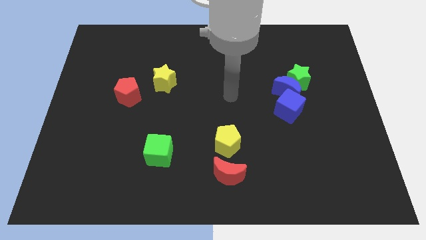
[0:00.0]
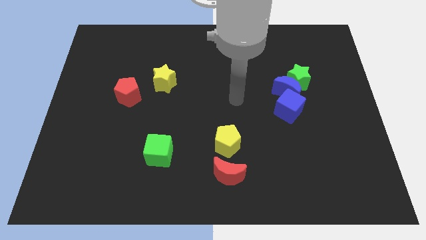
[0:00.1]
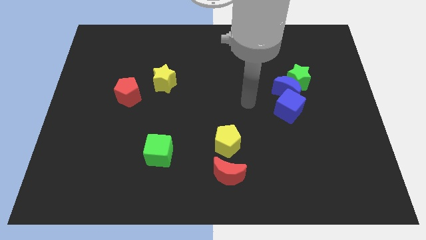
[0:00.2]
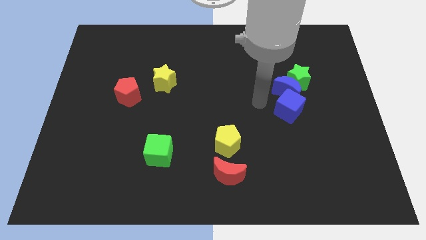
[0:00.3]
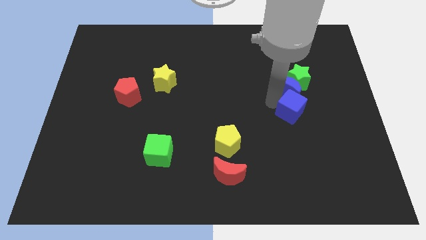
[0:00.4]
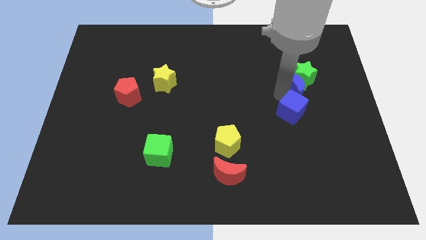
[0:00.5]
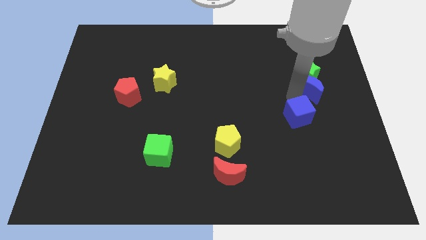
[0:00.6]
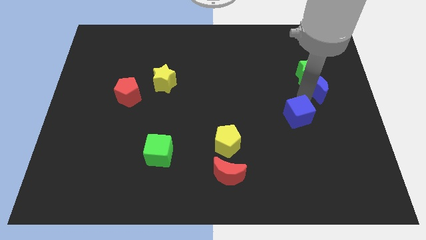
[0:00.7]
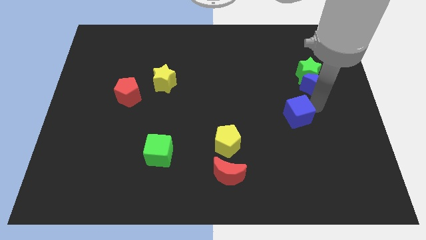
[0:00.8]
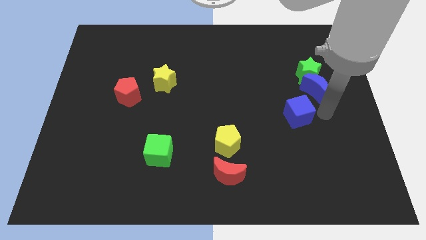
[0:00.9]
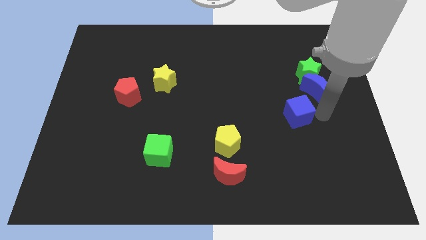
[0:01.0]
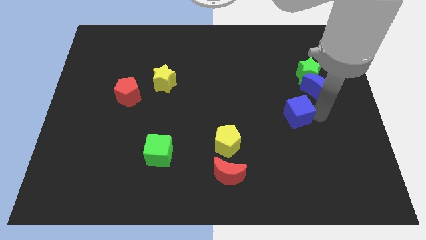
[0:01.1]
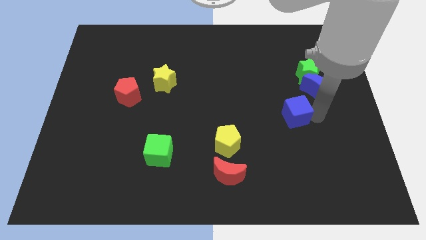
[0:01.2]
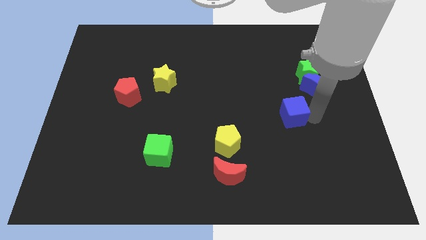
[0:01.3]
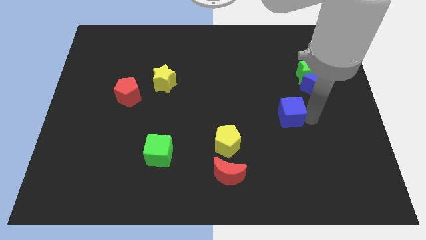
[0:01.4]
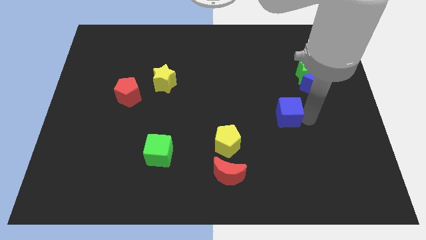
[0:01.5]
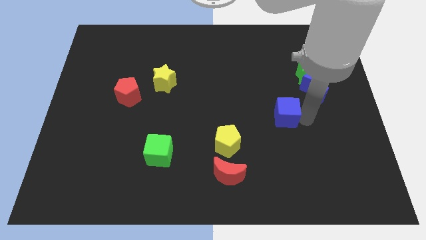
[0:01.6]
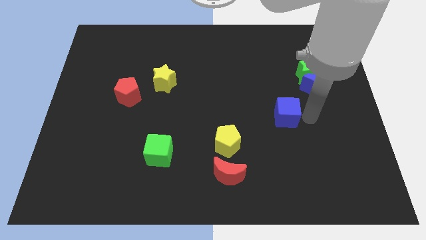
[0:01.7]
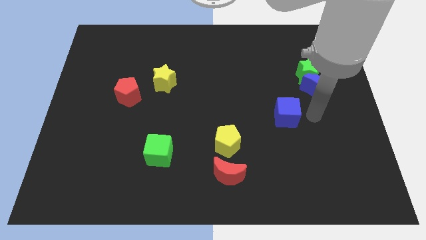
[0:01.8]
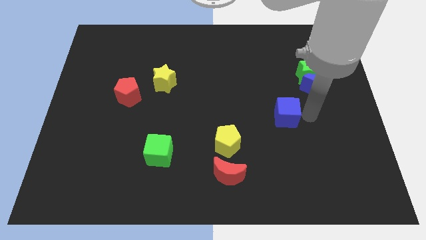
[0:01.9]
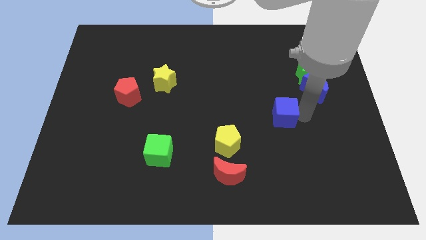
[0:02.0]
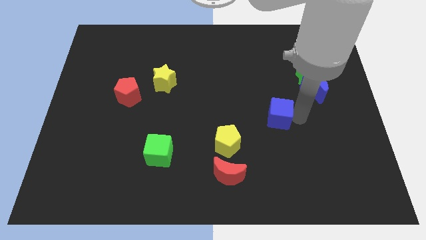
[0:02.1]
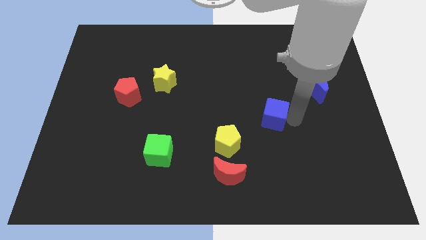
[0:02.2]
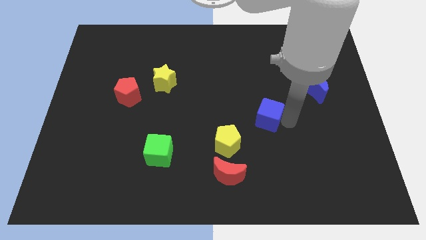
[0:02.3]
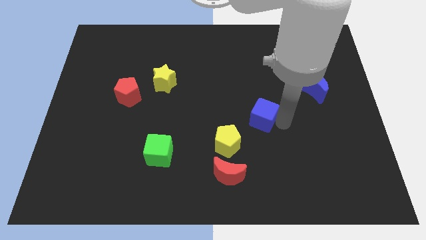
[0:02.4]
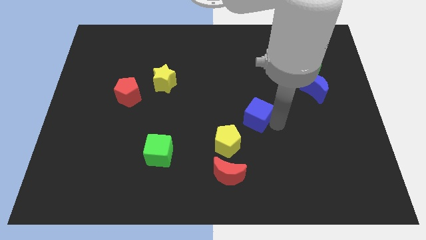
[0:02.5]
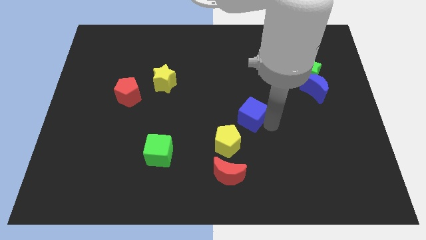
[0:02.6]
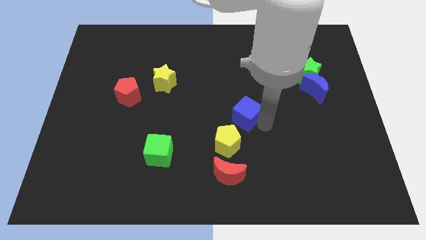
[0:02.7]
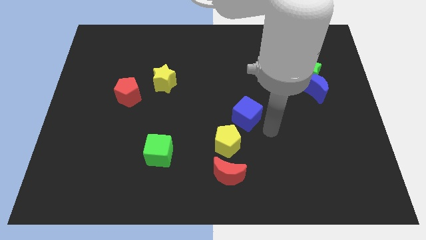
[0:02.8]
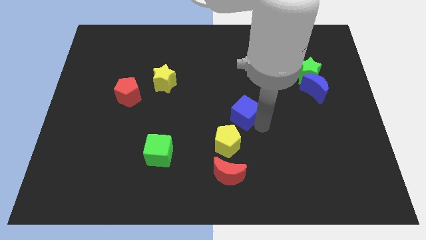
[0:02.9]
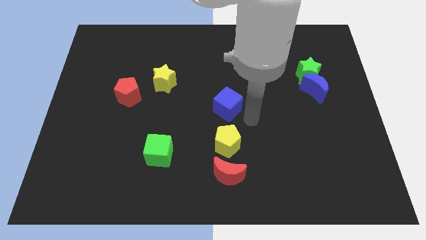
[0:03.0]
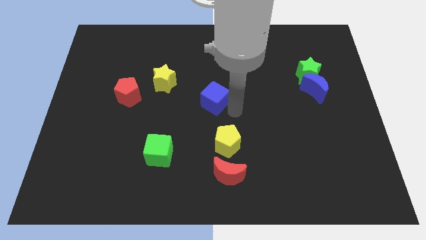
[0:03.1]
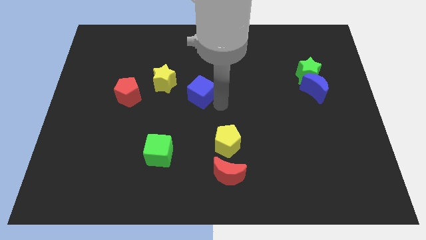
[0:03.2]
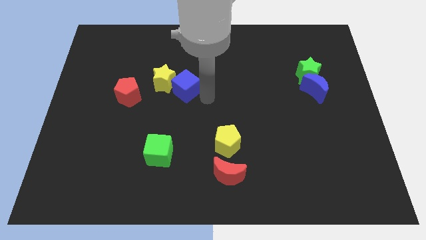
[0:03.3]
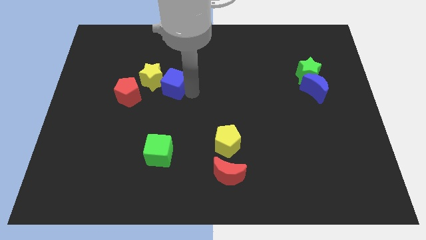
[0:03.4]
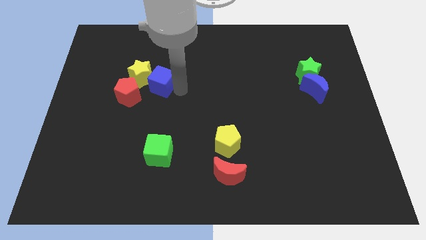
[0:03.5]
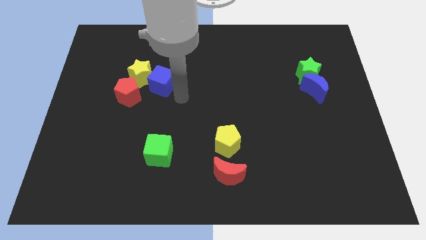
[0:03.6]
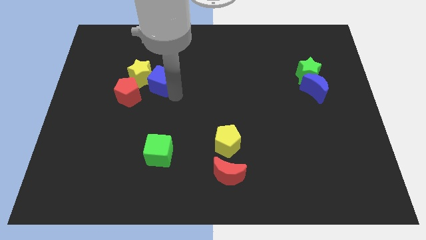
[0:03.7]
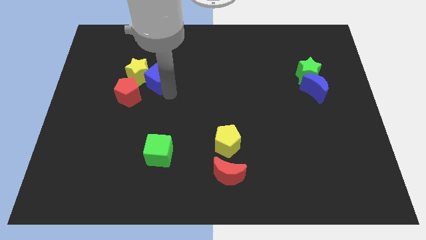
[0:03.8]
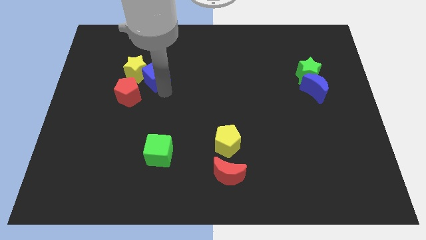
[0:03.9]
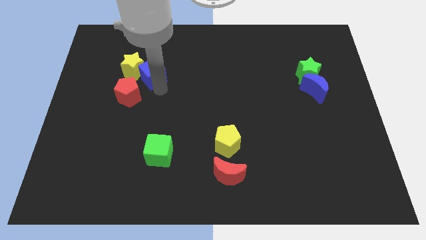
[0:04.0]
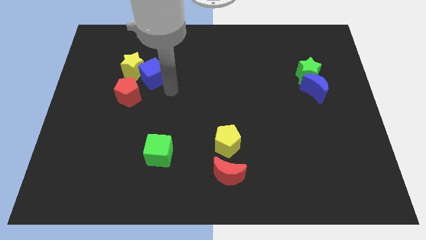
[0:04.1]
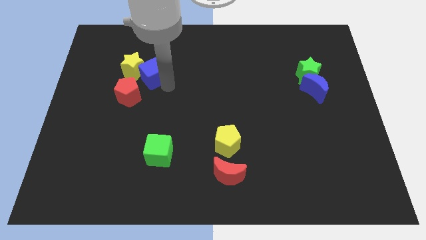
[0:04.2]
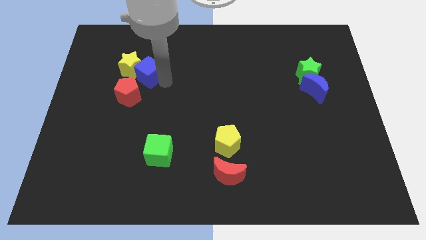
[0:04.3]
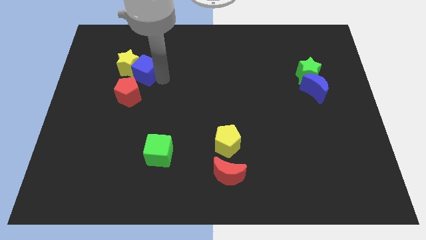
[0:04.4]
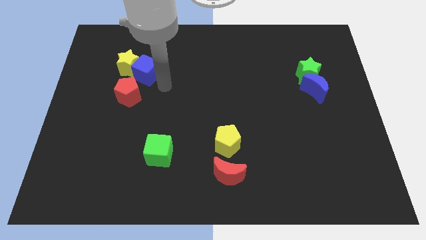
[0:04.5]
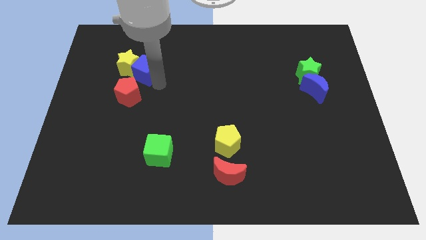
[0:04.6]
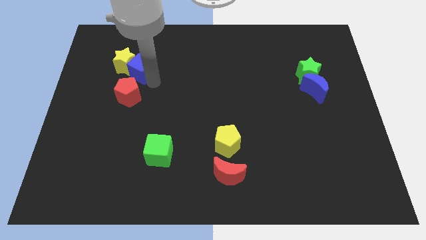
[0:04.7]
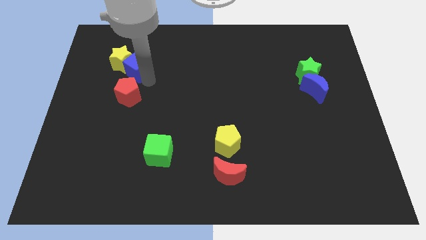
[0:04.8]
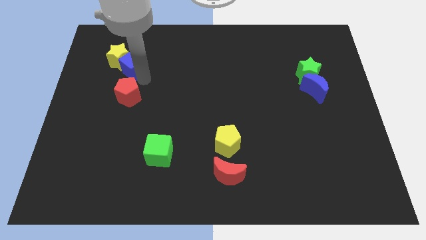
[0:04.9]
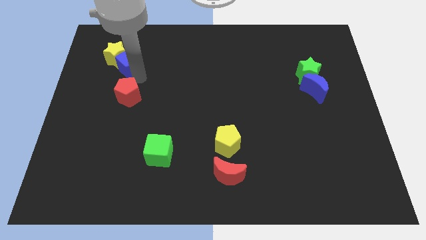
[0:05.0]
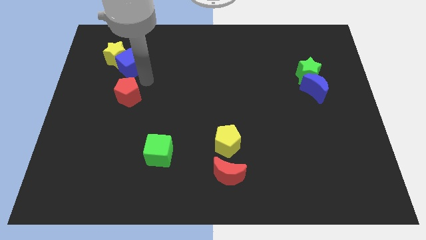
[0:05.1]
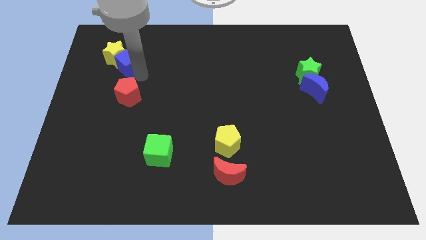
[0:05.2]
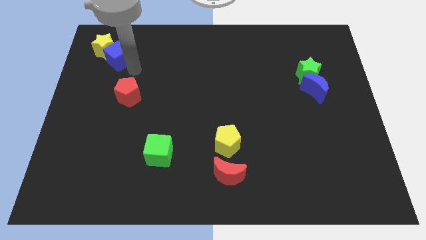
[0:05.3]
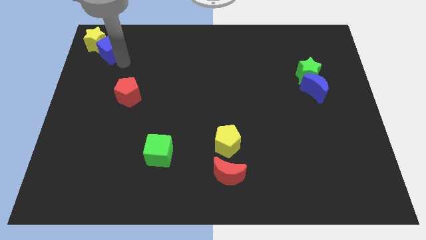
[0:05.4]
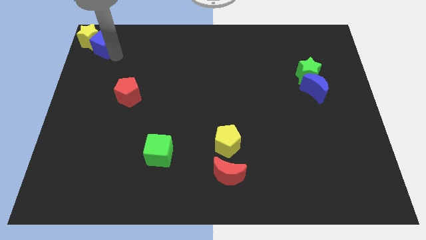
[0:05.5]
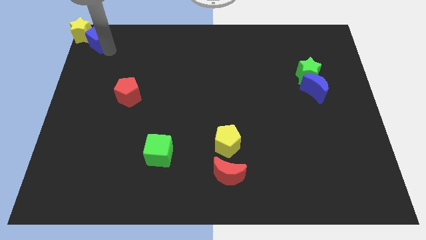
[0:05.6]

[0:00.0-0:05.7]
put the blue cube to the upper left corner

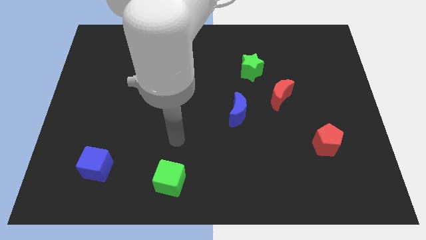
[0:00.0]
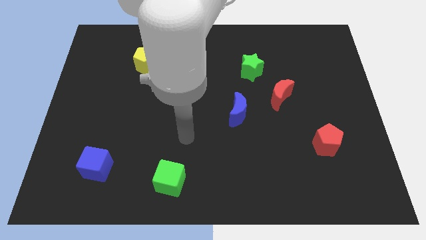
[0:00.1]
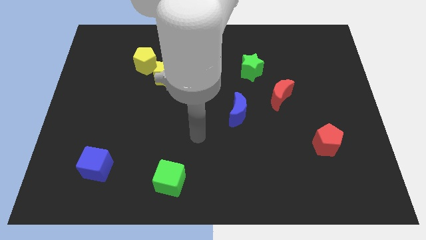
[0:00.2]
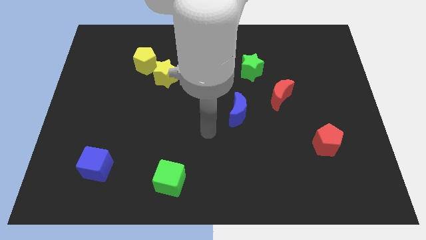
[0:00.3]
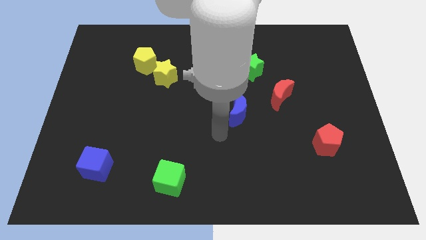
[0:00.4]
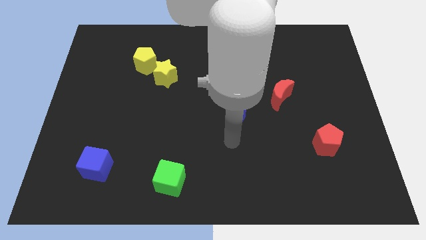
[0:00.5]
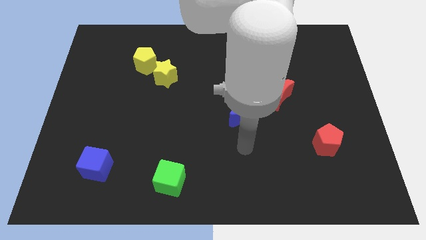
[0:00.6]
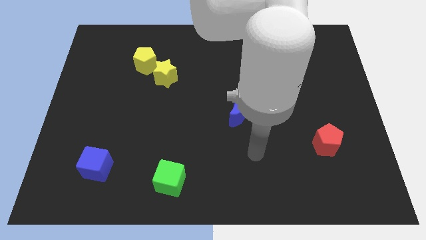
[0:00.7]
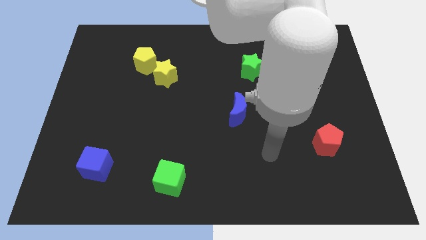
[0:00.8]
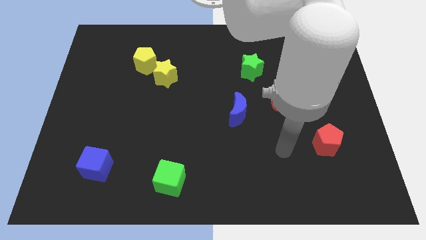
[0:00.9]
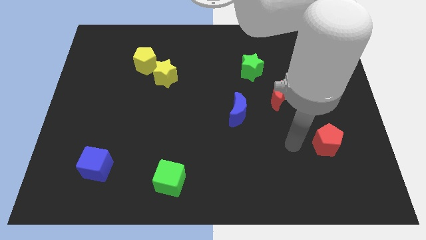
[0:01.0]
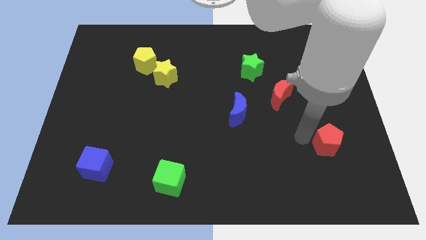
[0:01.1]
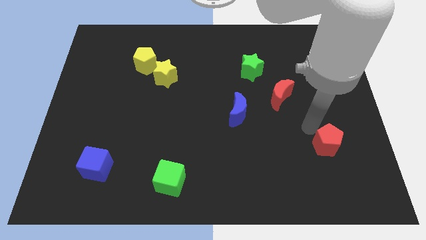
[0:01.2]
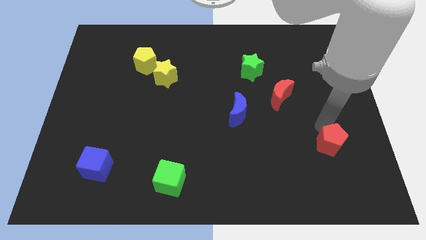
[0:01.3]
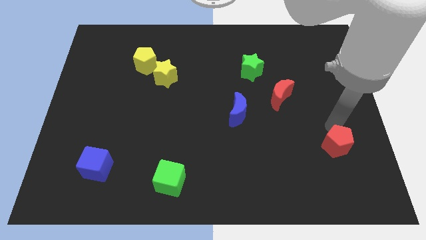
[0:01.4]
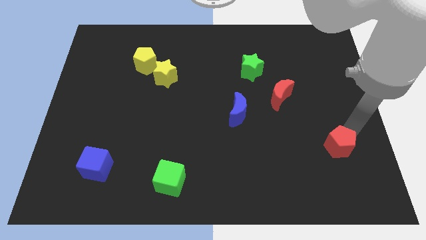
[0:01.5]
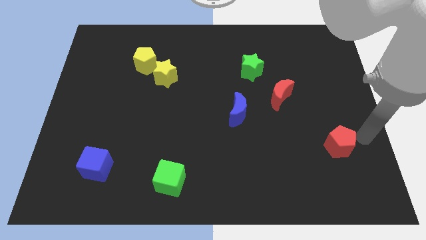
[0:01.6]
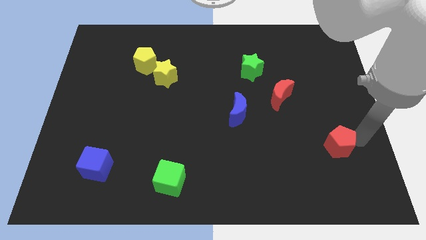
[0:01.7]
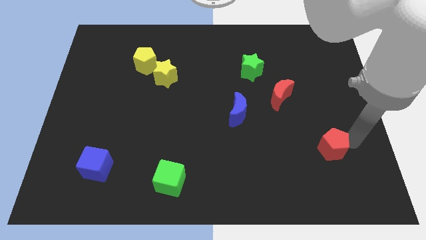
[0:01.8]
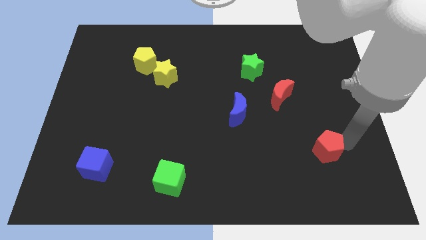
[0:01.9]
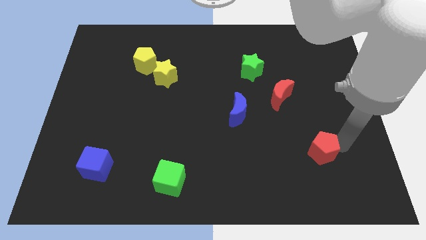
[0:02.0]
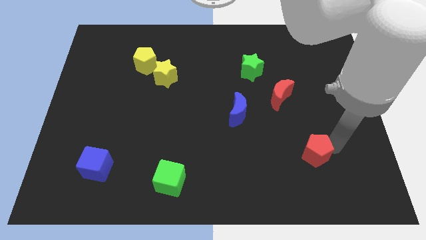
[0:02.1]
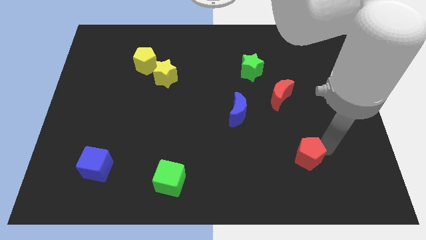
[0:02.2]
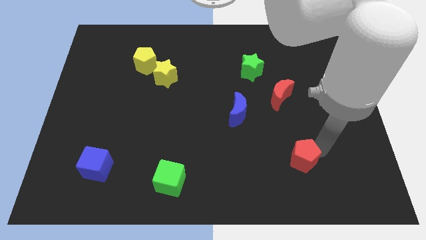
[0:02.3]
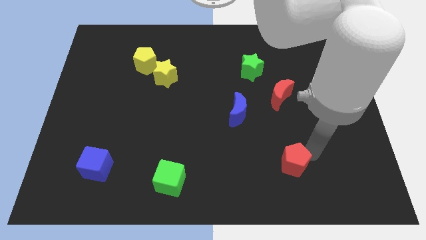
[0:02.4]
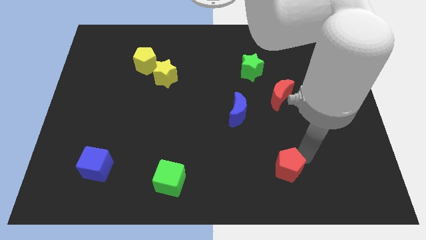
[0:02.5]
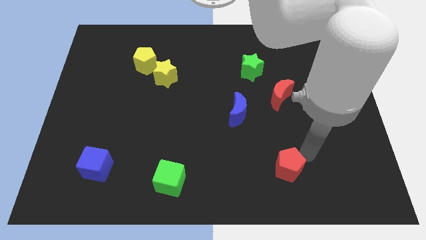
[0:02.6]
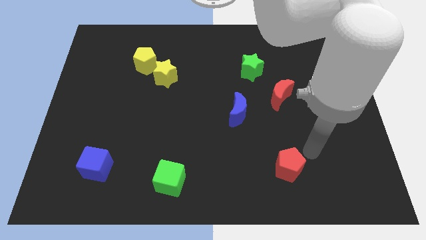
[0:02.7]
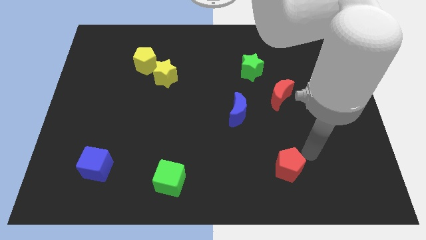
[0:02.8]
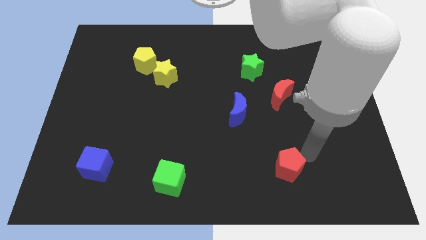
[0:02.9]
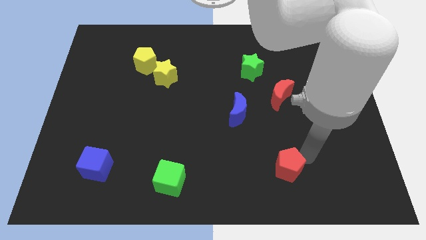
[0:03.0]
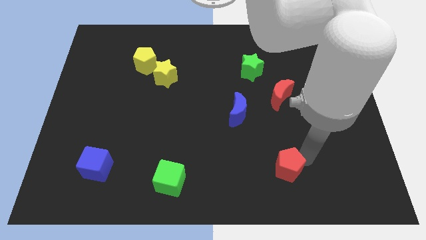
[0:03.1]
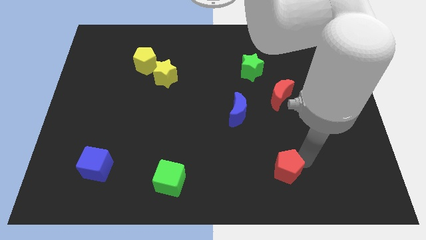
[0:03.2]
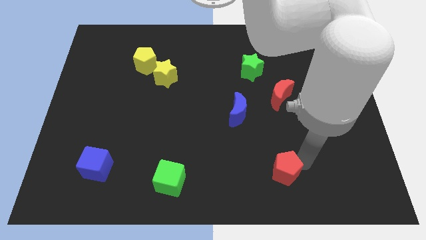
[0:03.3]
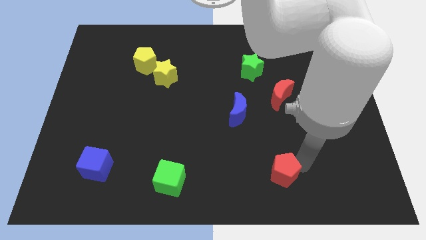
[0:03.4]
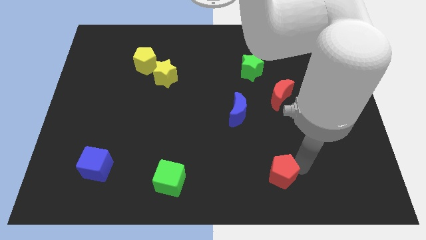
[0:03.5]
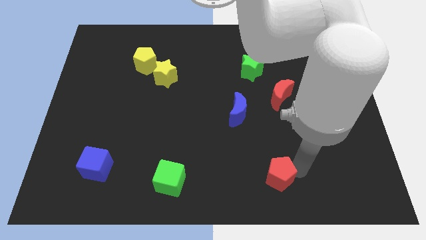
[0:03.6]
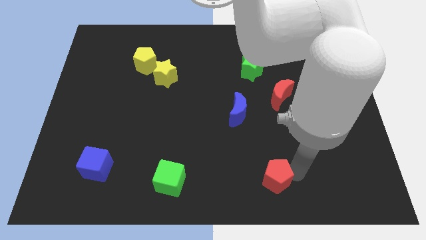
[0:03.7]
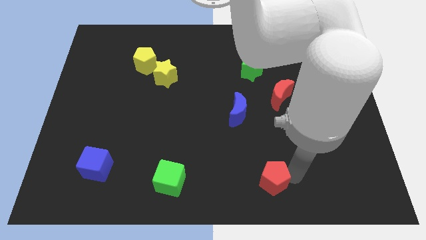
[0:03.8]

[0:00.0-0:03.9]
push the red pentagon to the bottom
